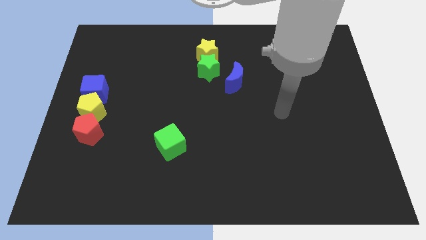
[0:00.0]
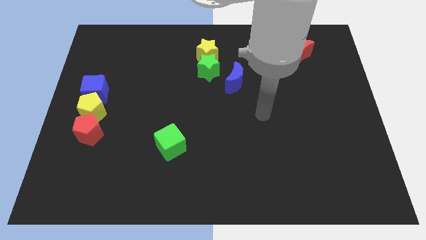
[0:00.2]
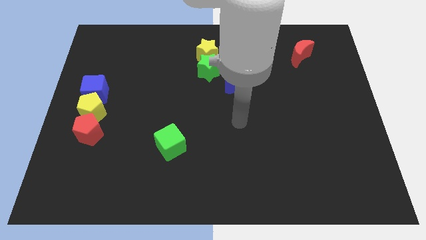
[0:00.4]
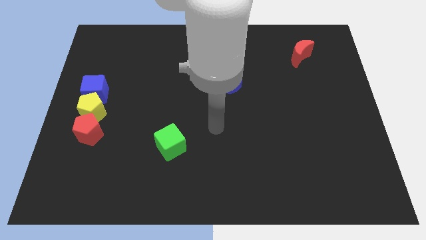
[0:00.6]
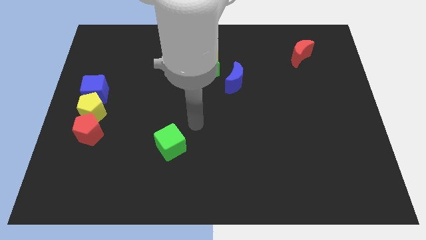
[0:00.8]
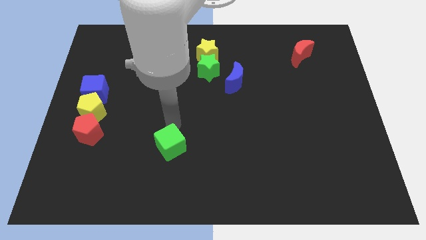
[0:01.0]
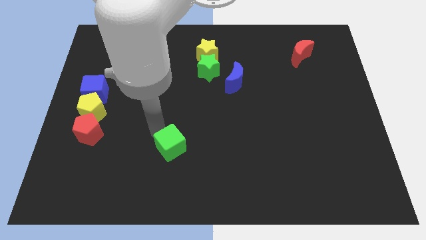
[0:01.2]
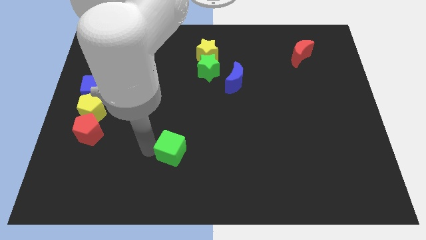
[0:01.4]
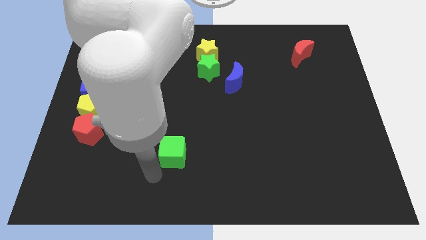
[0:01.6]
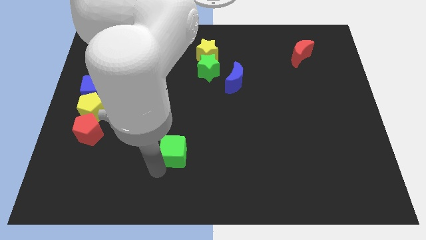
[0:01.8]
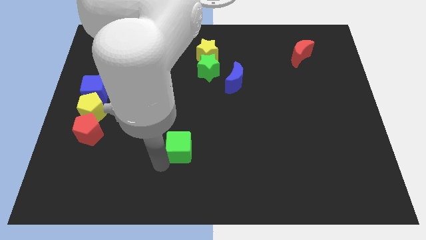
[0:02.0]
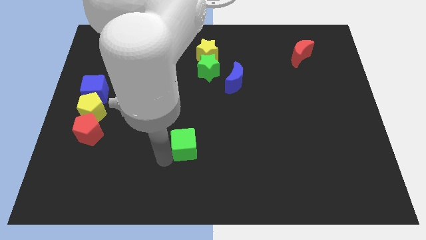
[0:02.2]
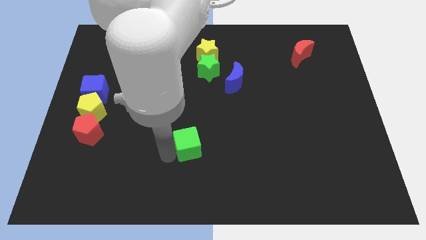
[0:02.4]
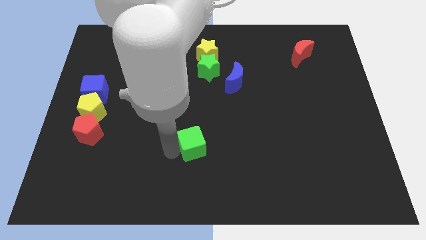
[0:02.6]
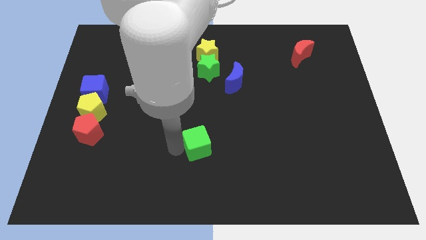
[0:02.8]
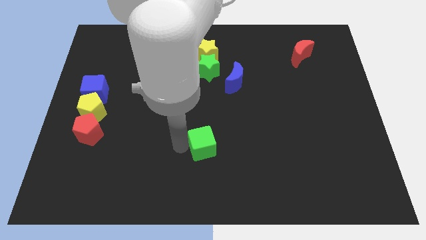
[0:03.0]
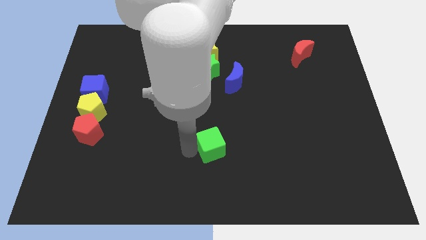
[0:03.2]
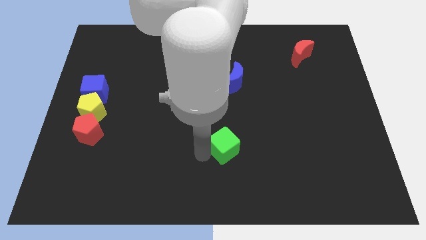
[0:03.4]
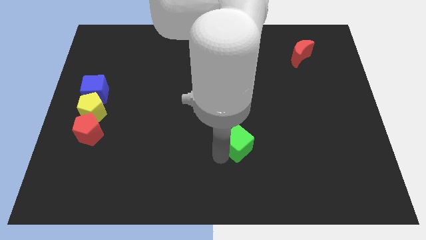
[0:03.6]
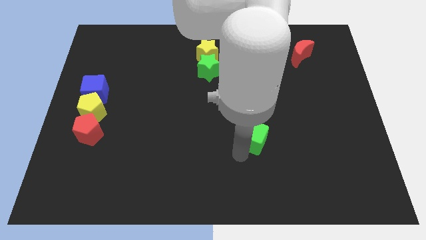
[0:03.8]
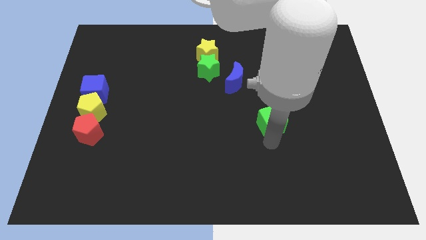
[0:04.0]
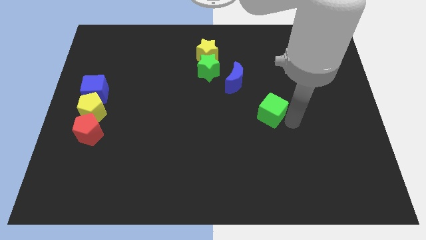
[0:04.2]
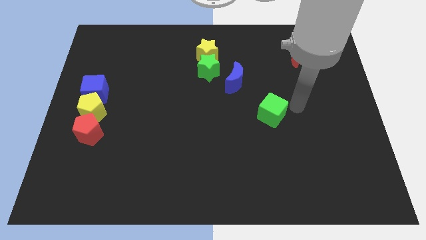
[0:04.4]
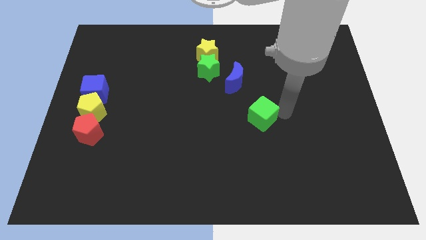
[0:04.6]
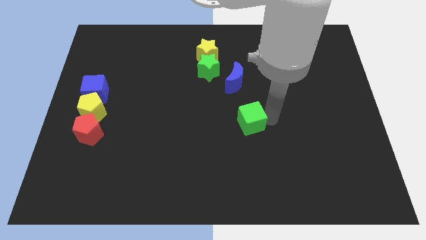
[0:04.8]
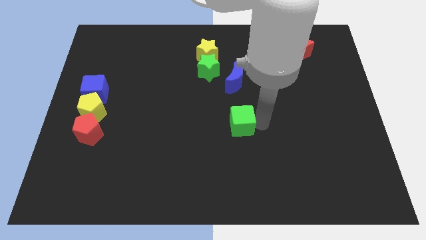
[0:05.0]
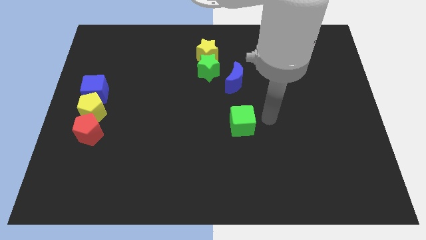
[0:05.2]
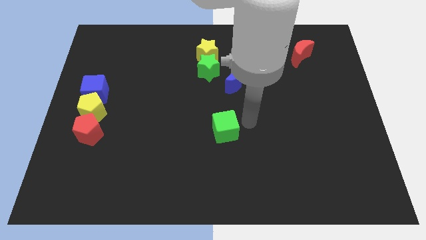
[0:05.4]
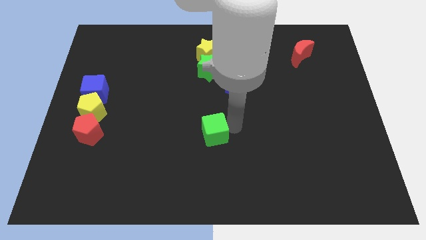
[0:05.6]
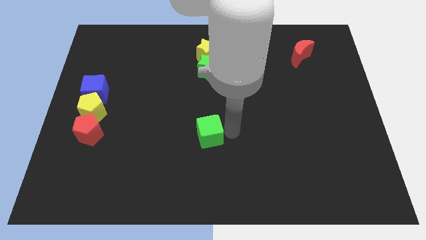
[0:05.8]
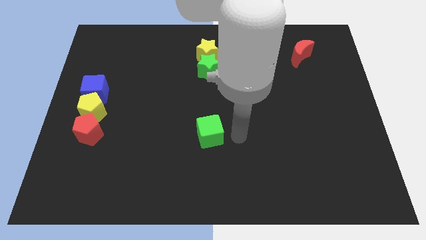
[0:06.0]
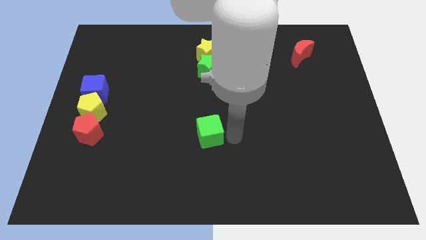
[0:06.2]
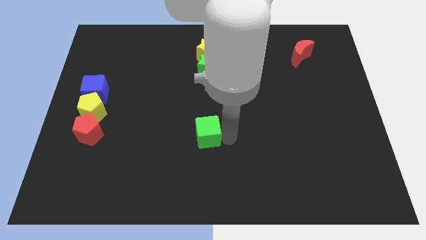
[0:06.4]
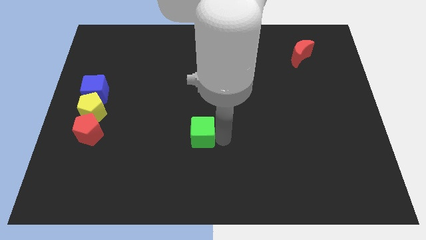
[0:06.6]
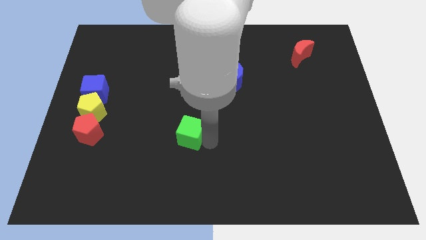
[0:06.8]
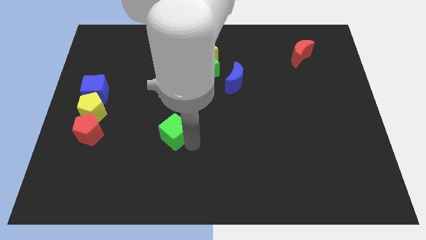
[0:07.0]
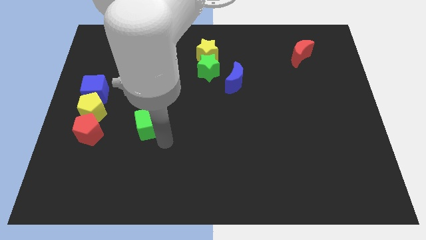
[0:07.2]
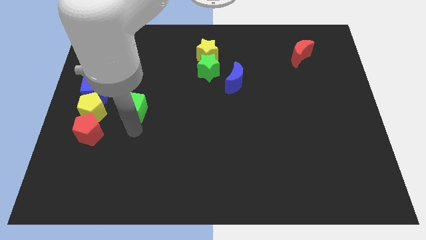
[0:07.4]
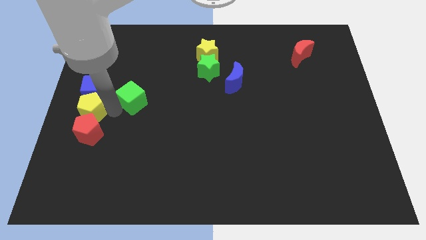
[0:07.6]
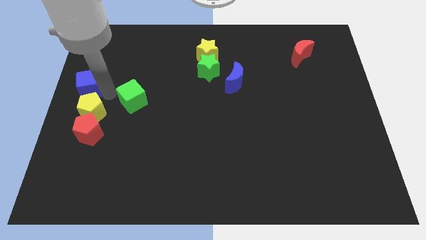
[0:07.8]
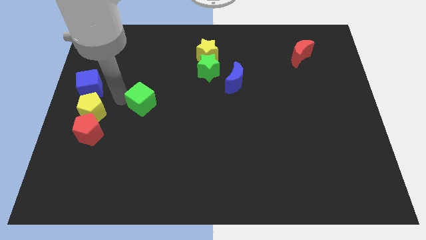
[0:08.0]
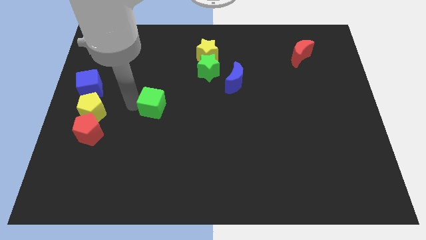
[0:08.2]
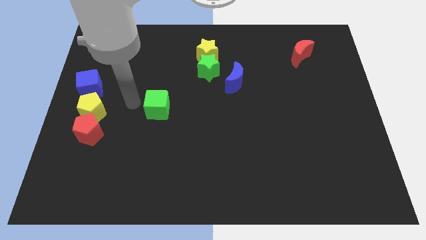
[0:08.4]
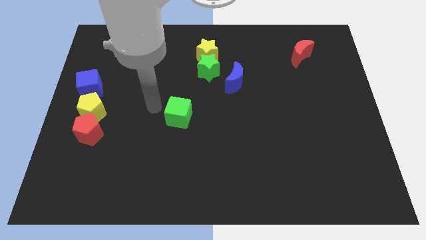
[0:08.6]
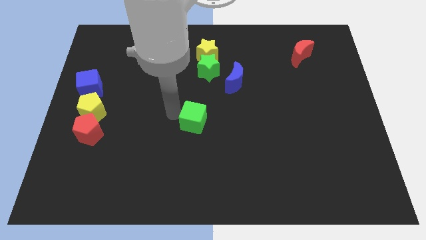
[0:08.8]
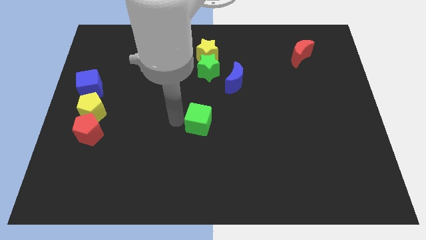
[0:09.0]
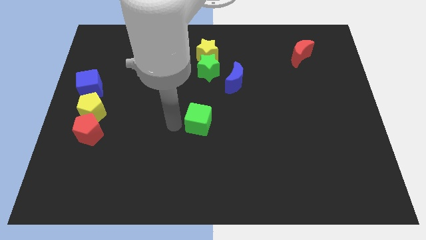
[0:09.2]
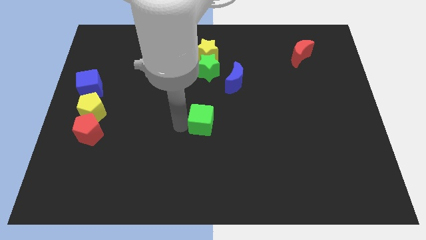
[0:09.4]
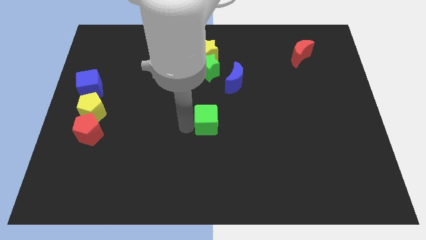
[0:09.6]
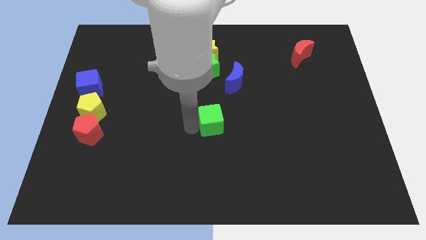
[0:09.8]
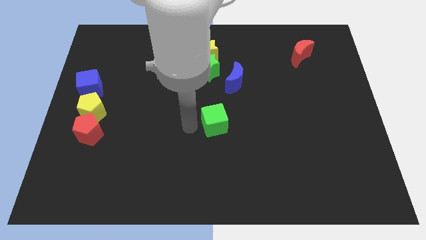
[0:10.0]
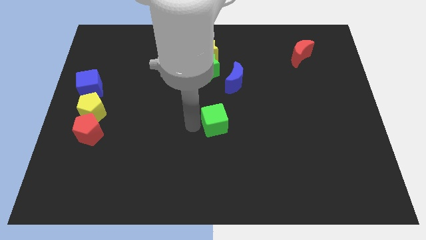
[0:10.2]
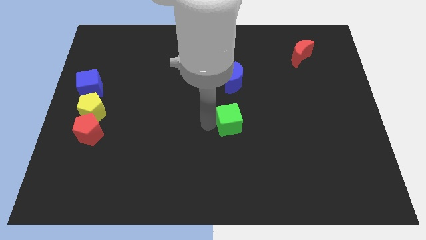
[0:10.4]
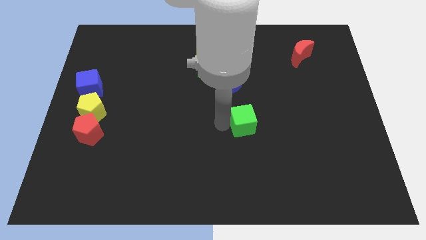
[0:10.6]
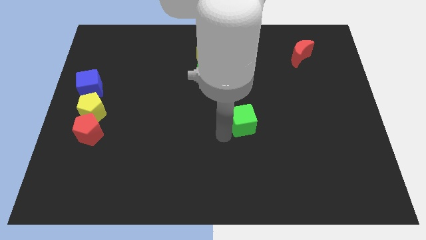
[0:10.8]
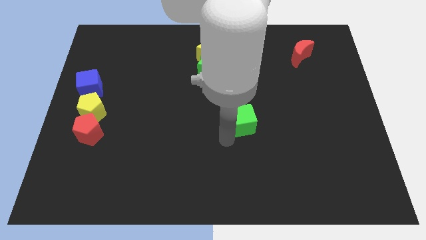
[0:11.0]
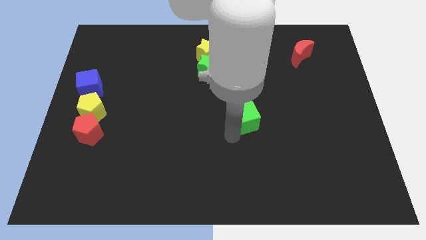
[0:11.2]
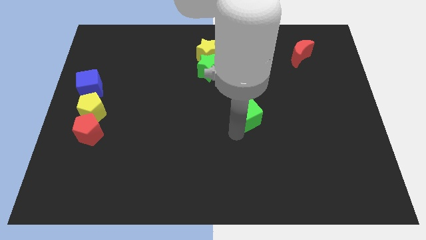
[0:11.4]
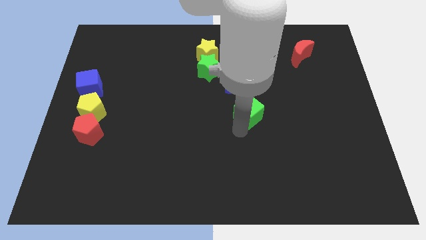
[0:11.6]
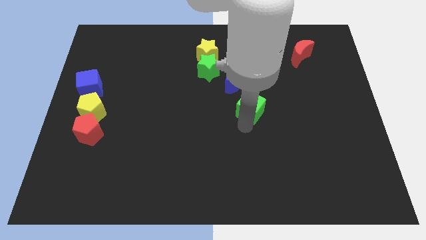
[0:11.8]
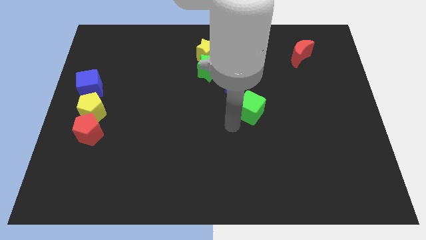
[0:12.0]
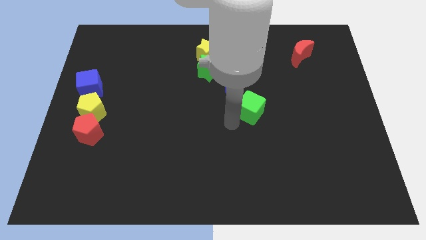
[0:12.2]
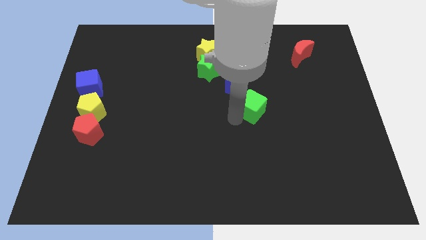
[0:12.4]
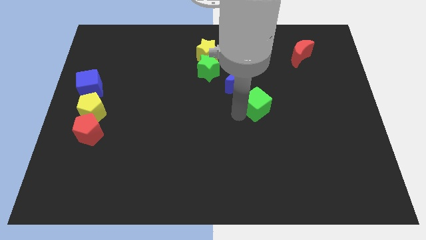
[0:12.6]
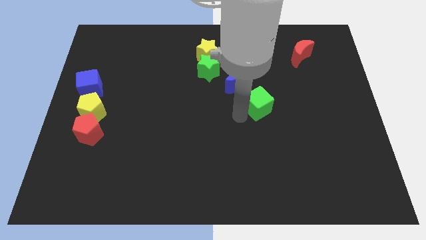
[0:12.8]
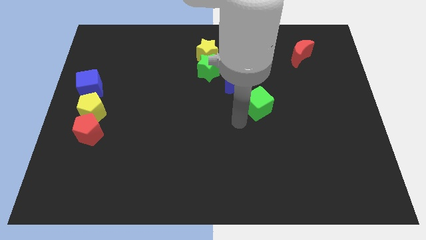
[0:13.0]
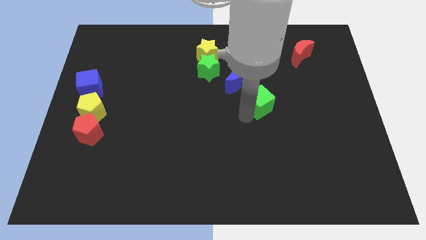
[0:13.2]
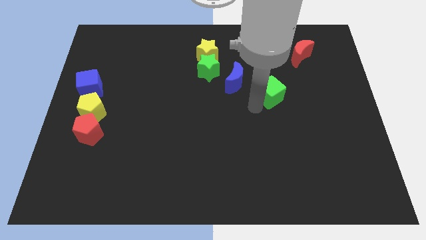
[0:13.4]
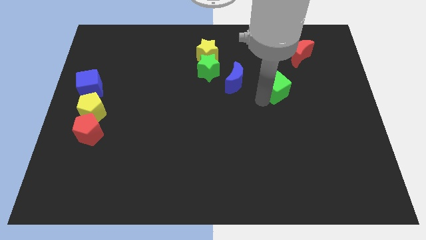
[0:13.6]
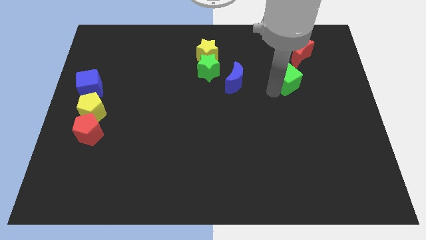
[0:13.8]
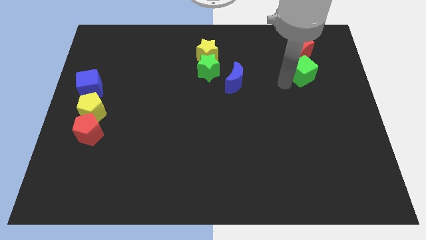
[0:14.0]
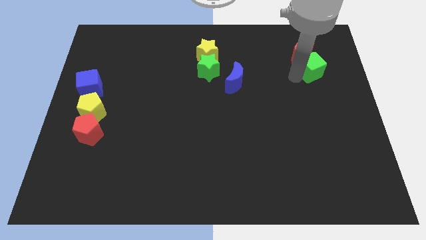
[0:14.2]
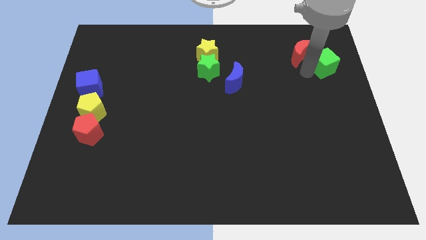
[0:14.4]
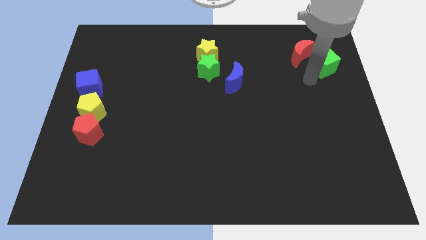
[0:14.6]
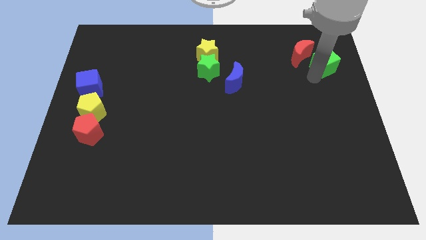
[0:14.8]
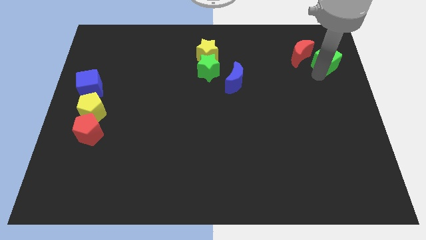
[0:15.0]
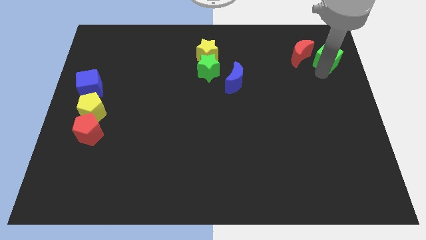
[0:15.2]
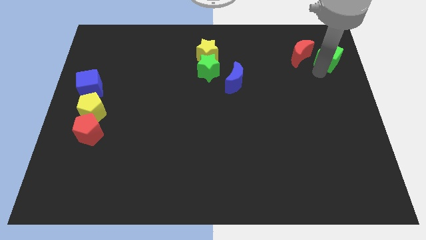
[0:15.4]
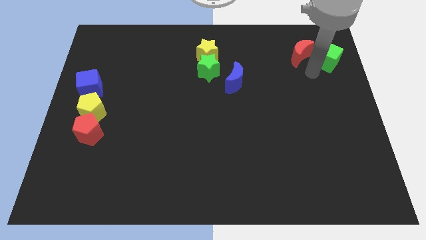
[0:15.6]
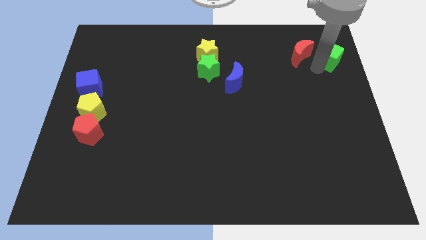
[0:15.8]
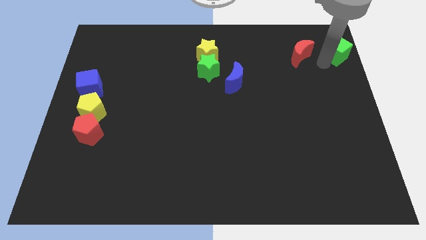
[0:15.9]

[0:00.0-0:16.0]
move the green cube to the top right corner
